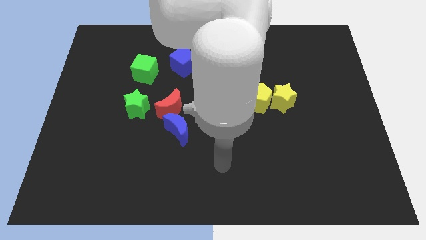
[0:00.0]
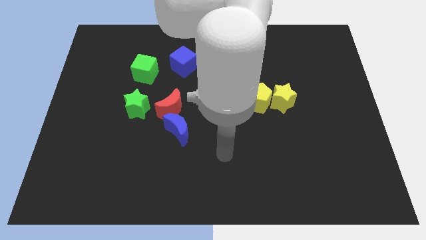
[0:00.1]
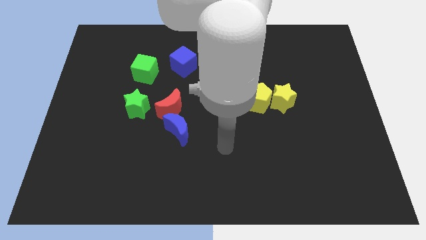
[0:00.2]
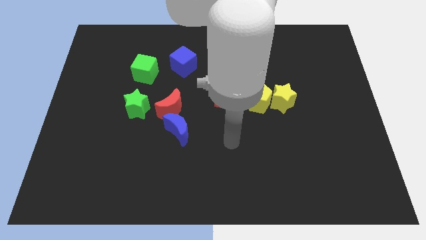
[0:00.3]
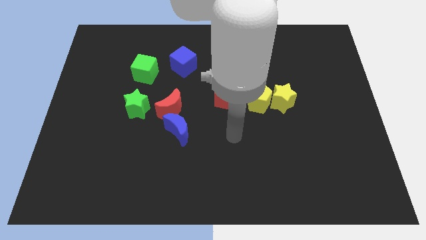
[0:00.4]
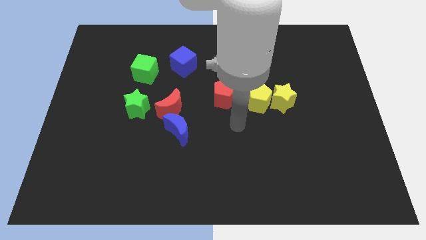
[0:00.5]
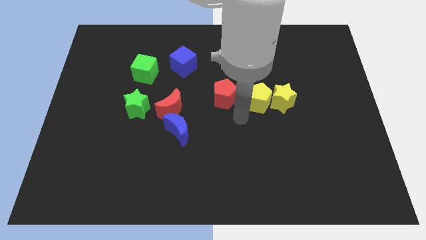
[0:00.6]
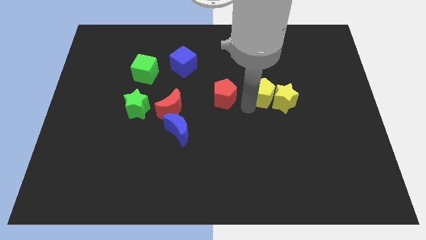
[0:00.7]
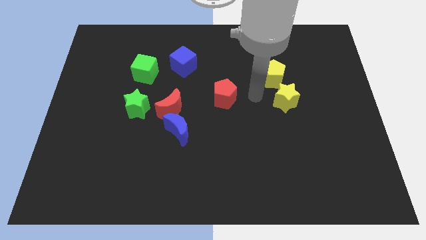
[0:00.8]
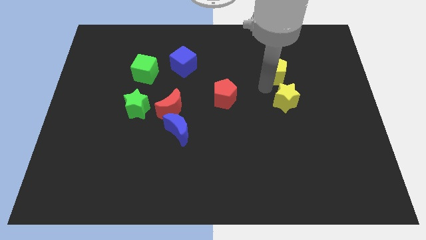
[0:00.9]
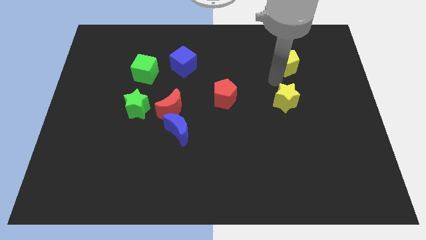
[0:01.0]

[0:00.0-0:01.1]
separate the yellow star from the yellow pentagon

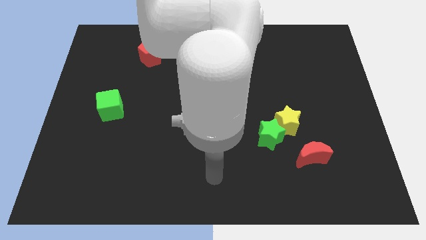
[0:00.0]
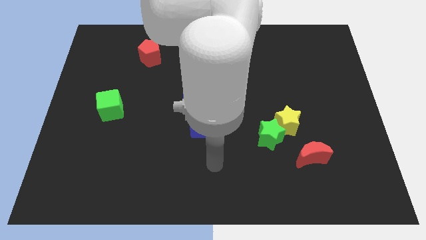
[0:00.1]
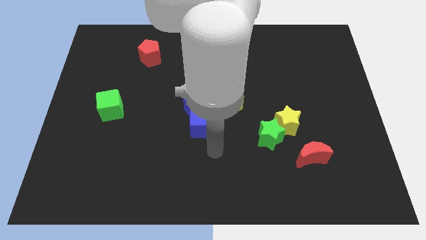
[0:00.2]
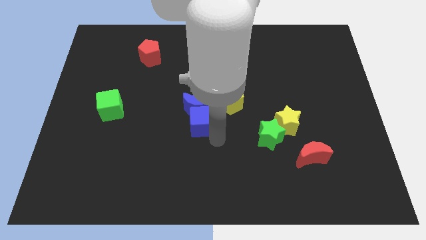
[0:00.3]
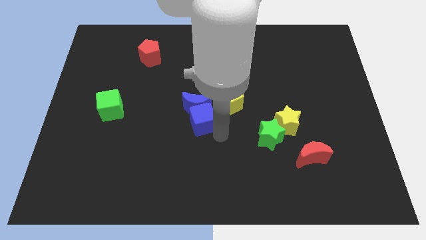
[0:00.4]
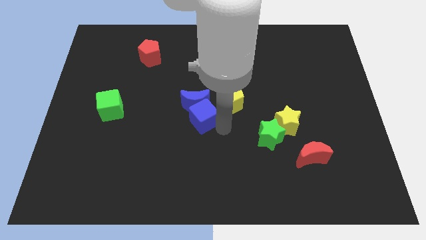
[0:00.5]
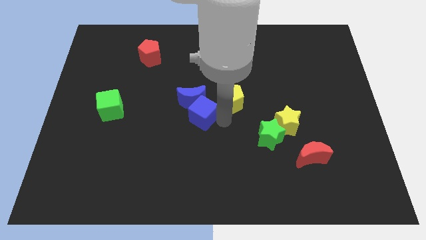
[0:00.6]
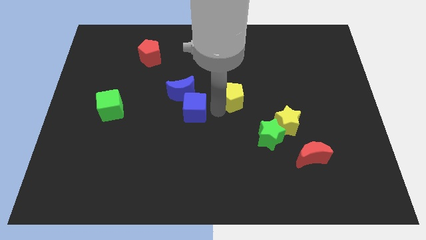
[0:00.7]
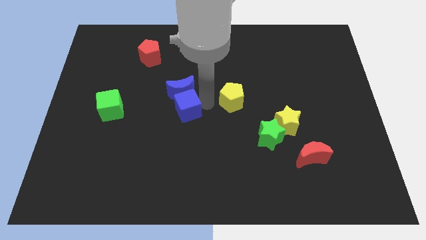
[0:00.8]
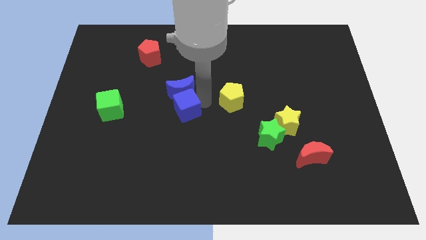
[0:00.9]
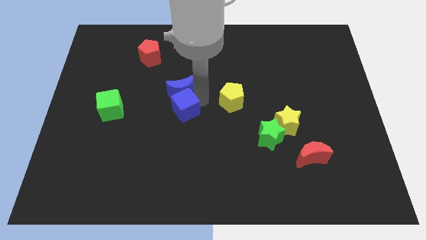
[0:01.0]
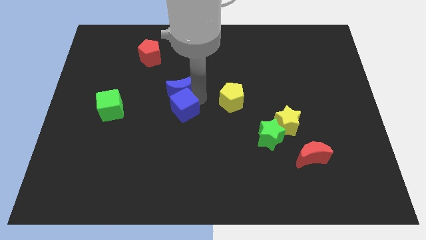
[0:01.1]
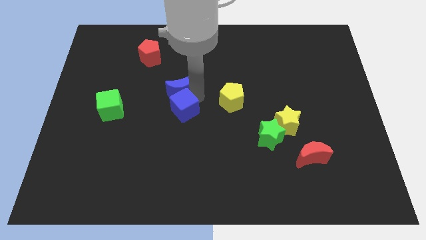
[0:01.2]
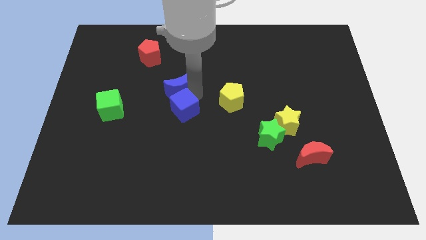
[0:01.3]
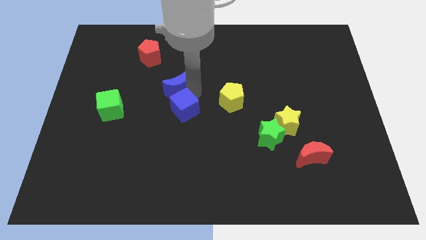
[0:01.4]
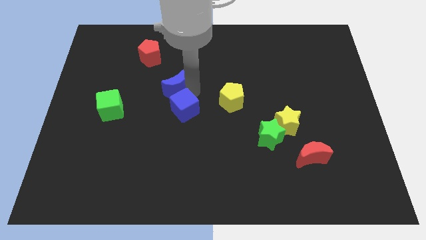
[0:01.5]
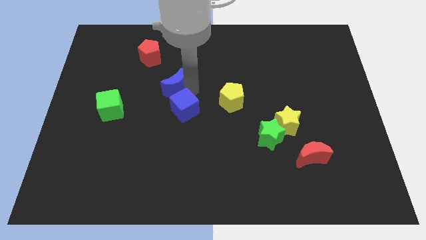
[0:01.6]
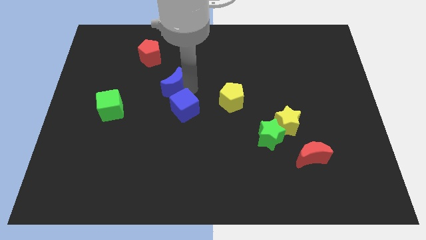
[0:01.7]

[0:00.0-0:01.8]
pull the blue moon apart from the blue cube and yellow pentagon

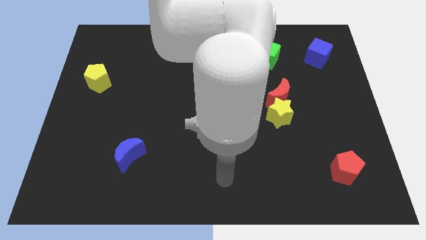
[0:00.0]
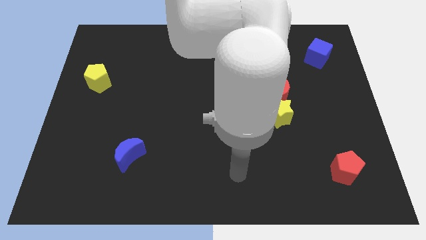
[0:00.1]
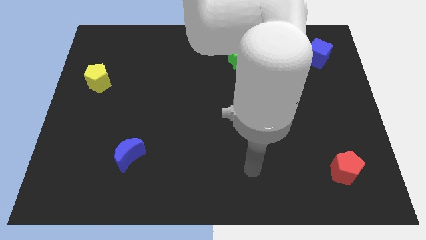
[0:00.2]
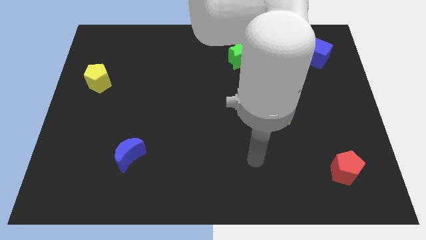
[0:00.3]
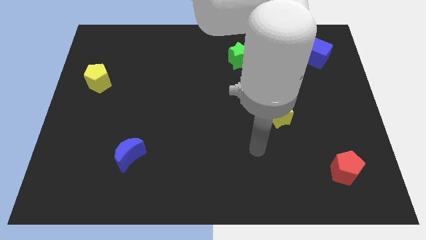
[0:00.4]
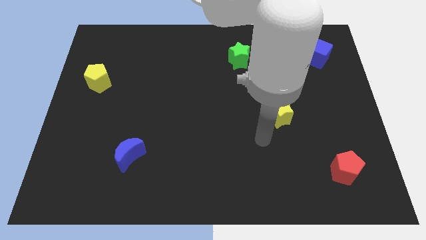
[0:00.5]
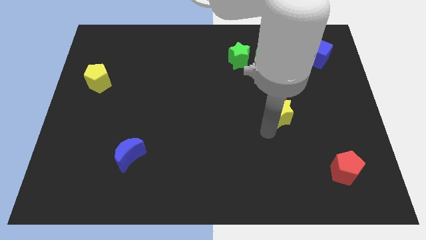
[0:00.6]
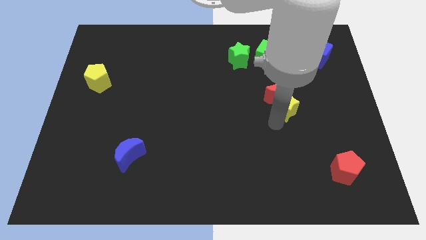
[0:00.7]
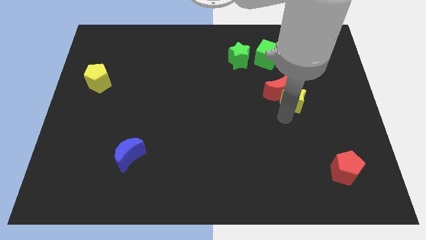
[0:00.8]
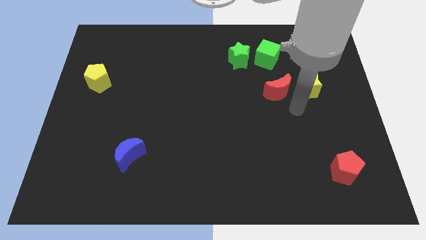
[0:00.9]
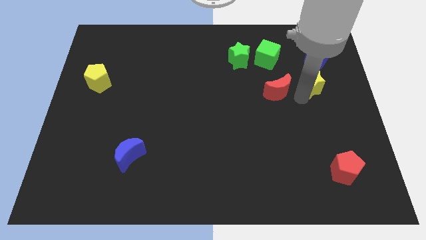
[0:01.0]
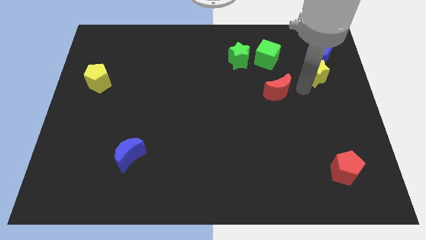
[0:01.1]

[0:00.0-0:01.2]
pull the red moon apart from the yellow star

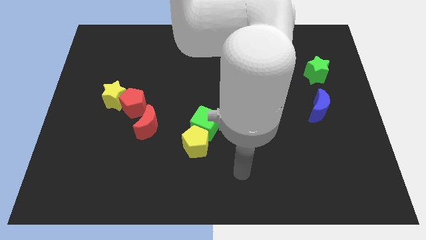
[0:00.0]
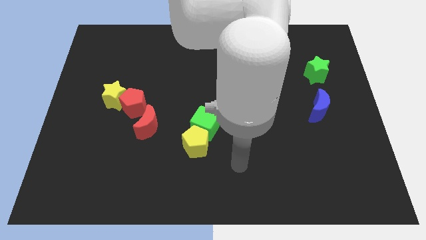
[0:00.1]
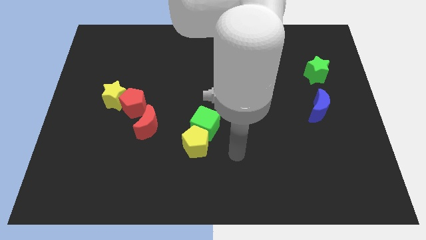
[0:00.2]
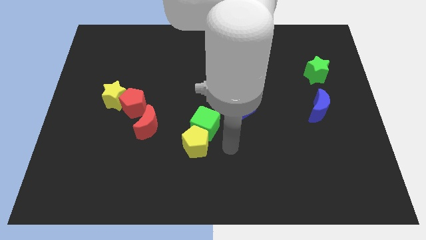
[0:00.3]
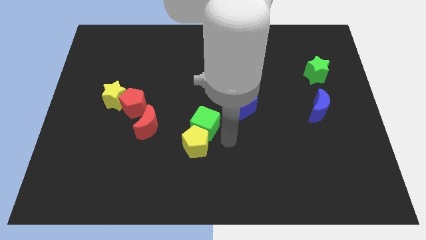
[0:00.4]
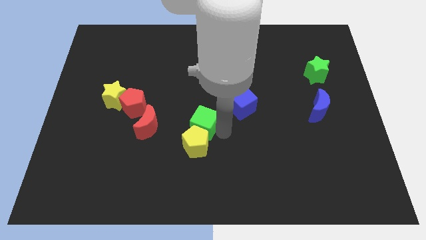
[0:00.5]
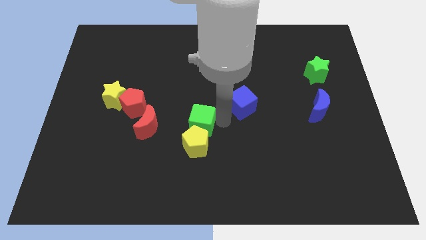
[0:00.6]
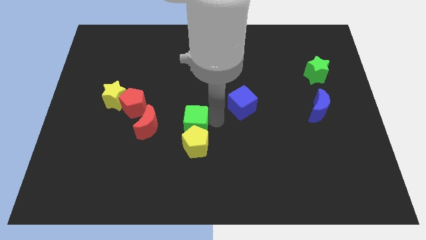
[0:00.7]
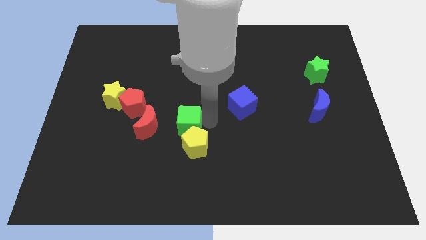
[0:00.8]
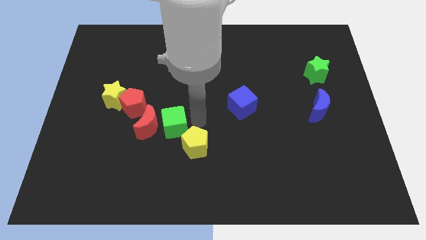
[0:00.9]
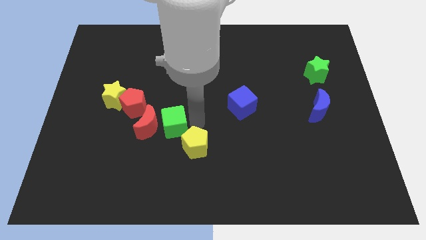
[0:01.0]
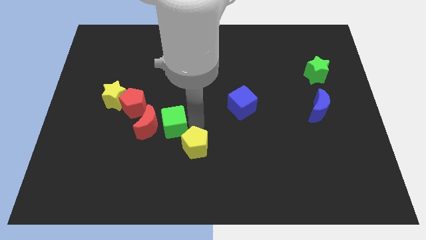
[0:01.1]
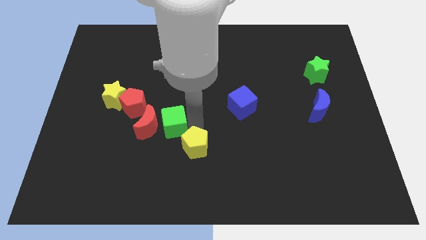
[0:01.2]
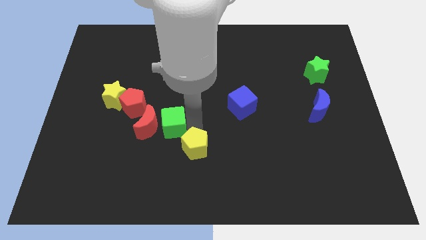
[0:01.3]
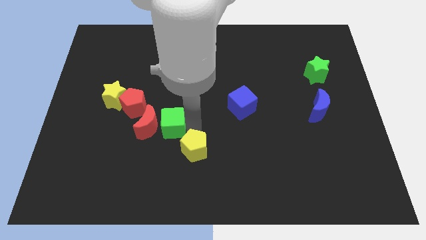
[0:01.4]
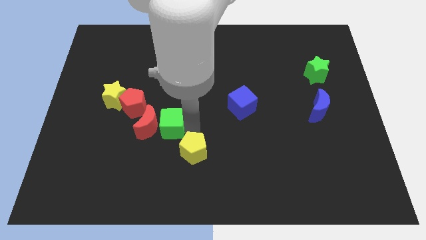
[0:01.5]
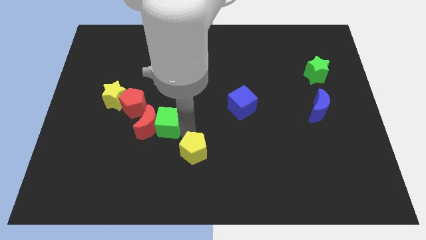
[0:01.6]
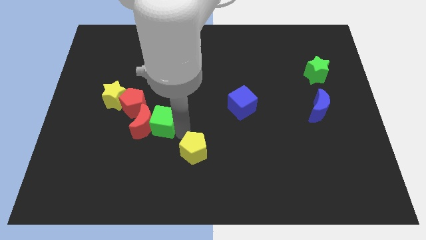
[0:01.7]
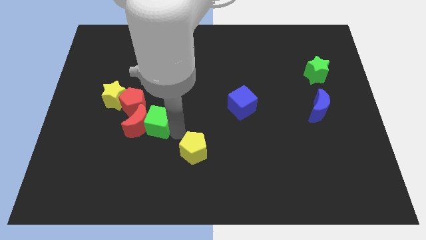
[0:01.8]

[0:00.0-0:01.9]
pull the yellow pentagon apart from the green cube

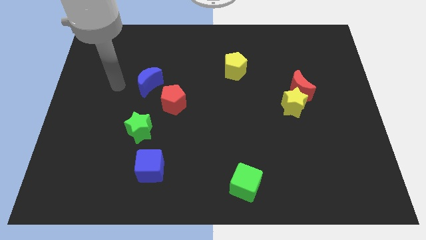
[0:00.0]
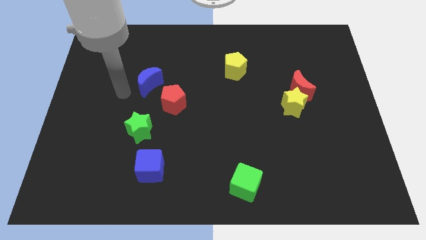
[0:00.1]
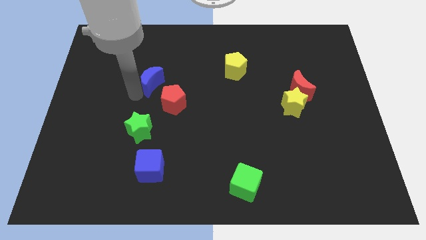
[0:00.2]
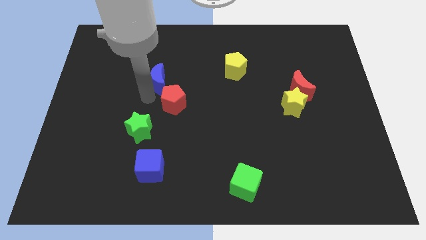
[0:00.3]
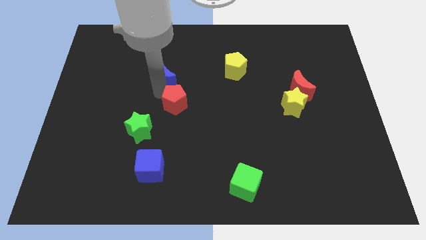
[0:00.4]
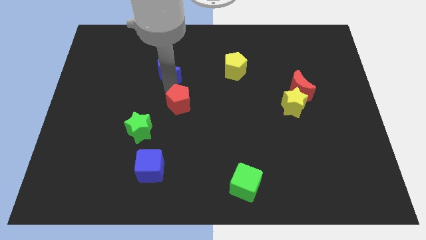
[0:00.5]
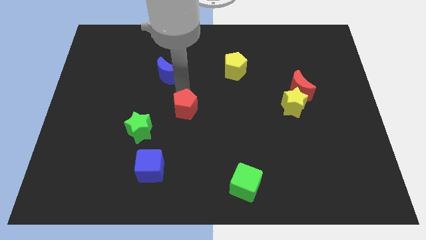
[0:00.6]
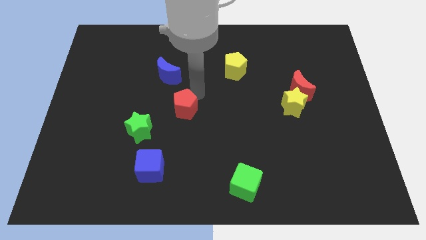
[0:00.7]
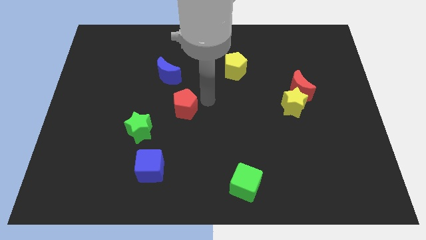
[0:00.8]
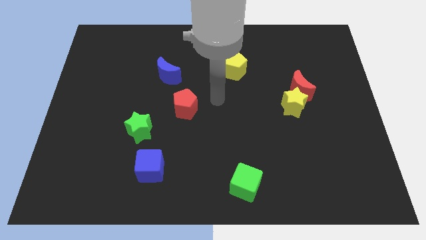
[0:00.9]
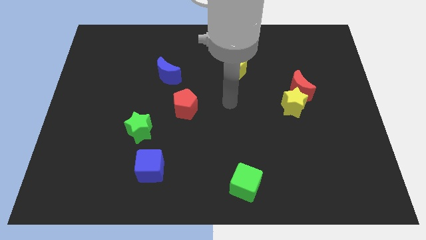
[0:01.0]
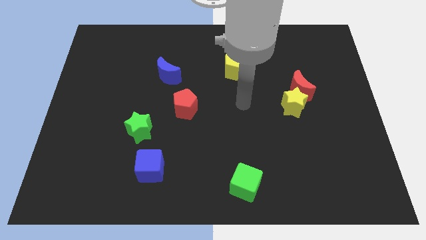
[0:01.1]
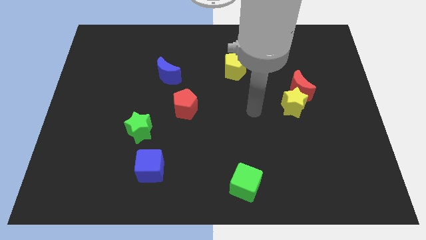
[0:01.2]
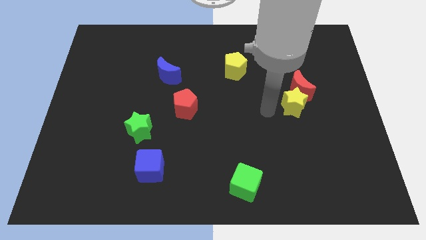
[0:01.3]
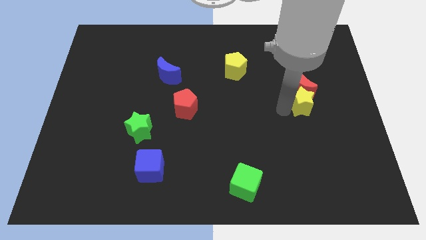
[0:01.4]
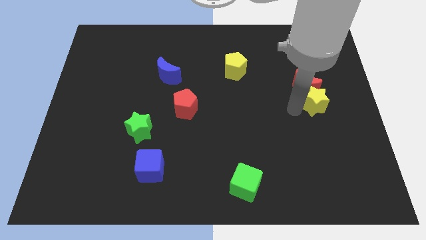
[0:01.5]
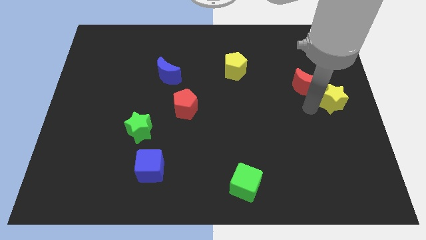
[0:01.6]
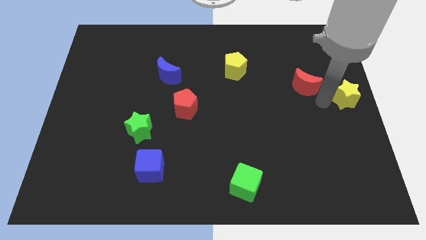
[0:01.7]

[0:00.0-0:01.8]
separate the red moon from the yellow star

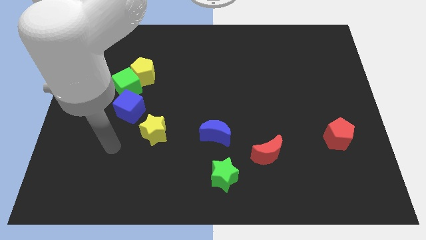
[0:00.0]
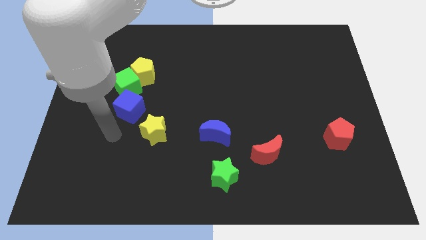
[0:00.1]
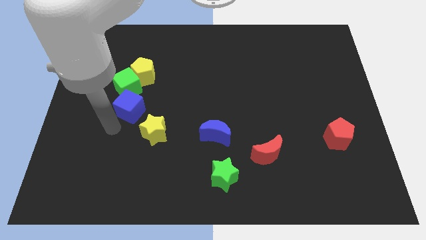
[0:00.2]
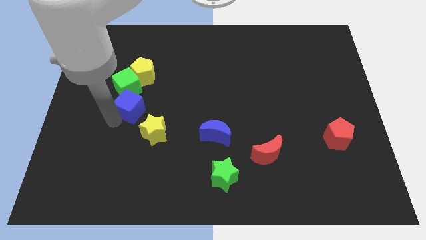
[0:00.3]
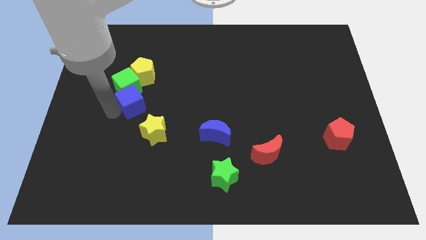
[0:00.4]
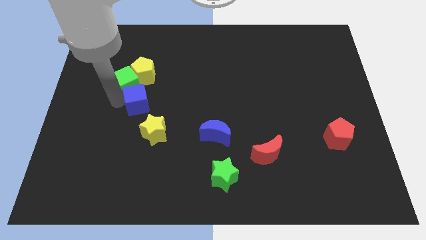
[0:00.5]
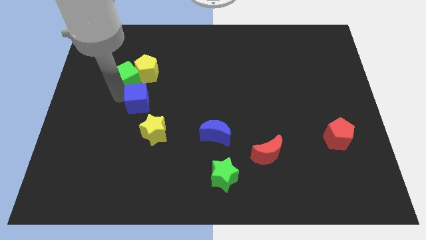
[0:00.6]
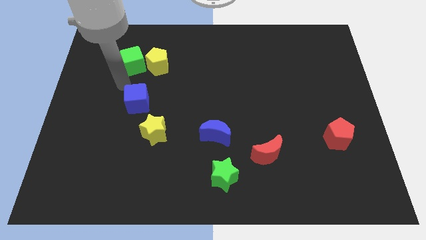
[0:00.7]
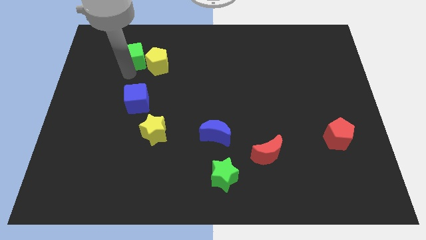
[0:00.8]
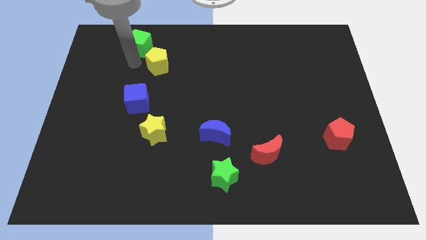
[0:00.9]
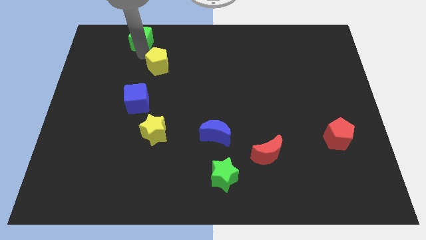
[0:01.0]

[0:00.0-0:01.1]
move the yellow pentagon away from the green cube

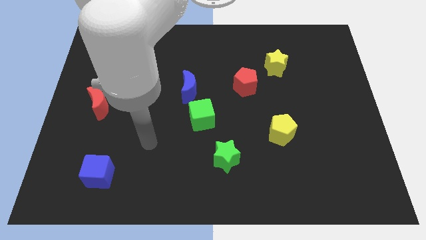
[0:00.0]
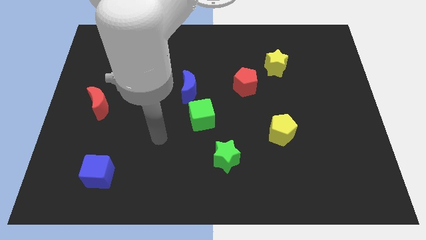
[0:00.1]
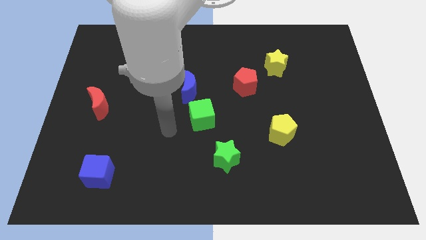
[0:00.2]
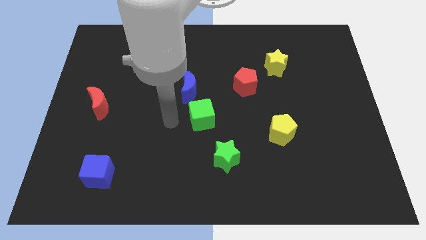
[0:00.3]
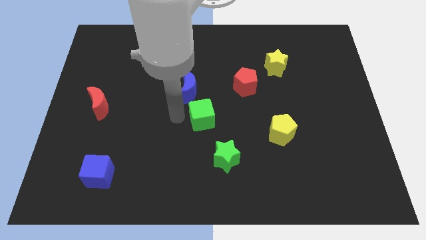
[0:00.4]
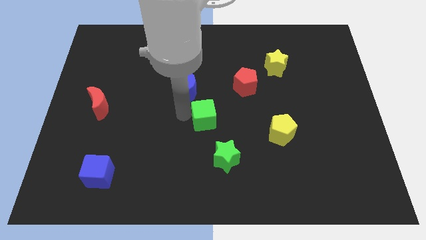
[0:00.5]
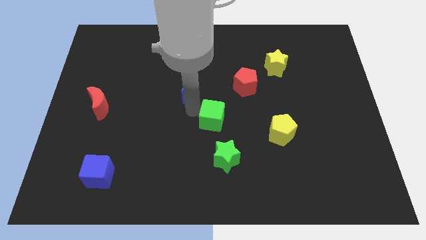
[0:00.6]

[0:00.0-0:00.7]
pull the blue moon apart from the green cube
